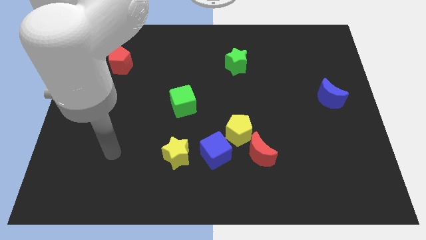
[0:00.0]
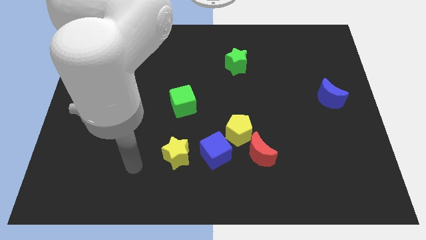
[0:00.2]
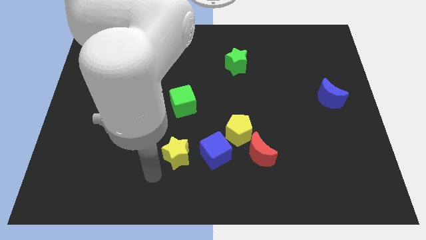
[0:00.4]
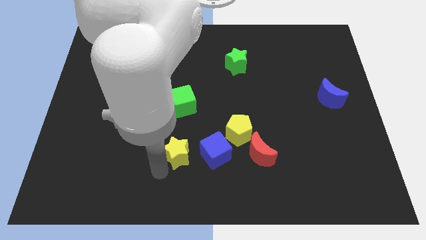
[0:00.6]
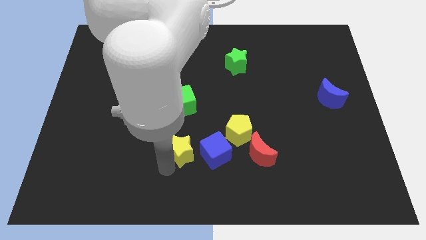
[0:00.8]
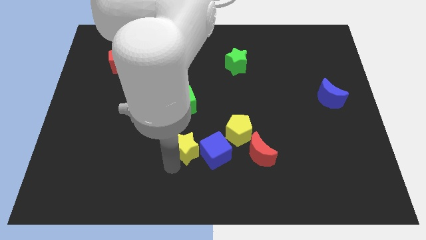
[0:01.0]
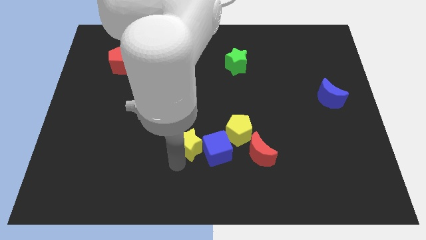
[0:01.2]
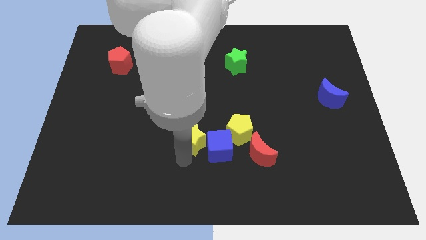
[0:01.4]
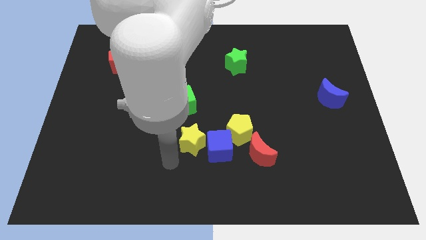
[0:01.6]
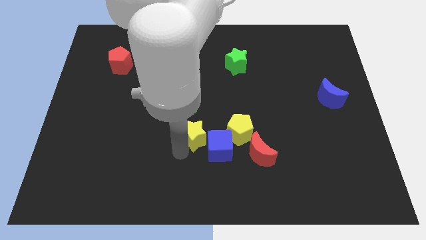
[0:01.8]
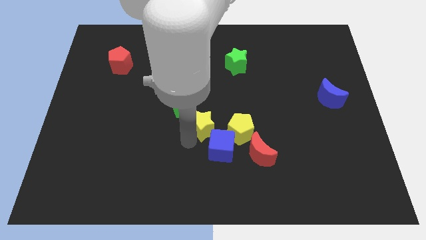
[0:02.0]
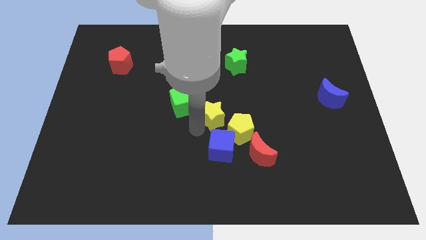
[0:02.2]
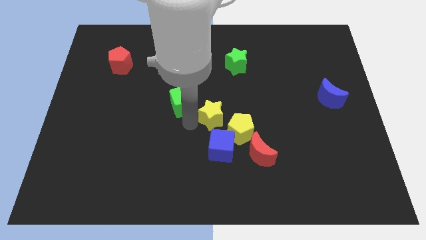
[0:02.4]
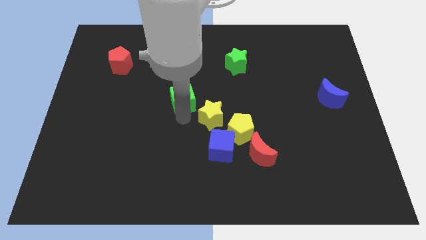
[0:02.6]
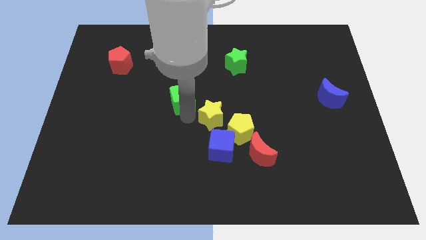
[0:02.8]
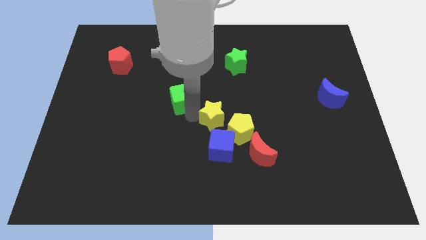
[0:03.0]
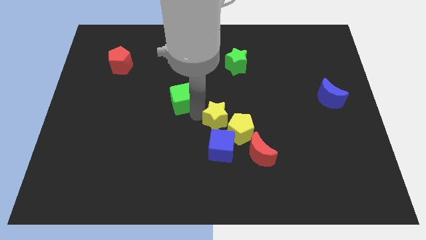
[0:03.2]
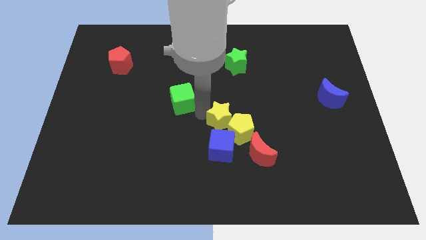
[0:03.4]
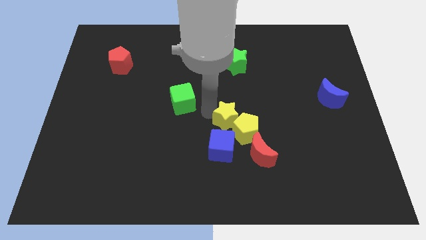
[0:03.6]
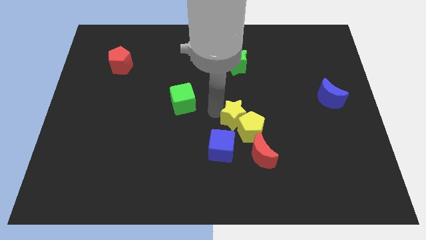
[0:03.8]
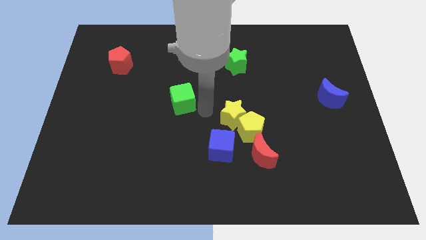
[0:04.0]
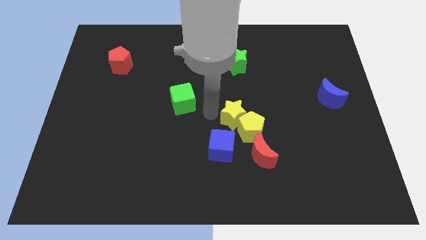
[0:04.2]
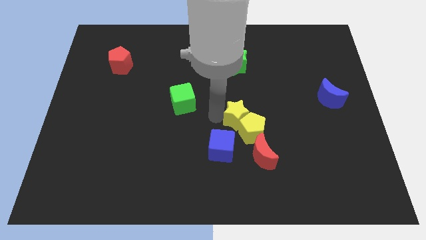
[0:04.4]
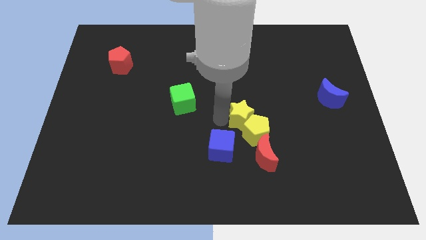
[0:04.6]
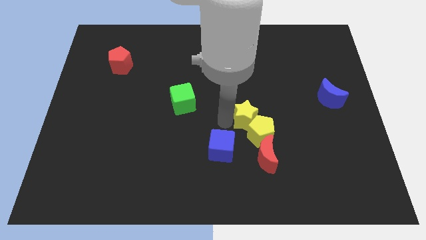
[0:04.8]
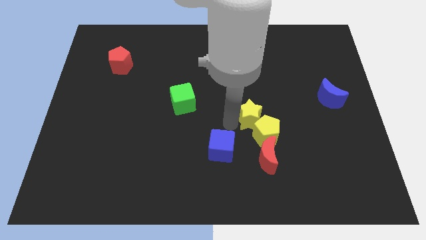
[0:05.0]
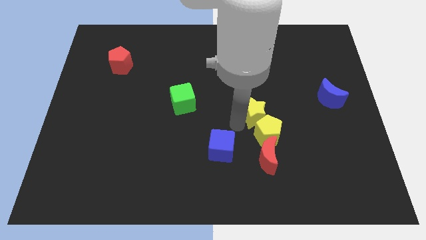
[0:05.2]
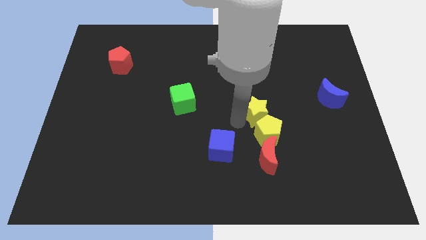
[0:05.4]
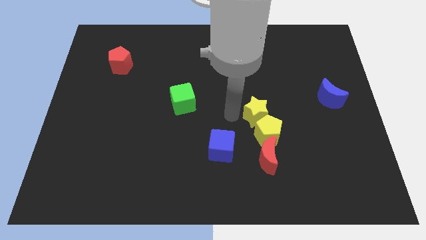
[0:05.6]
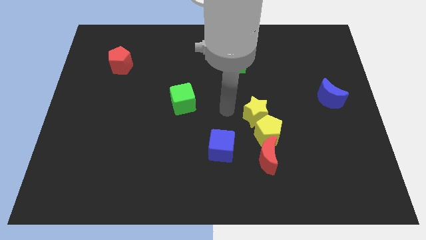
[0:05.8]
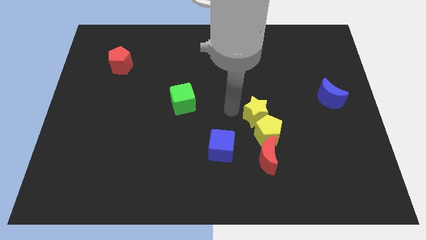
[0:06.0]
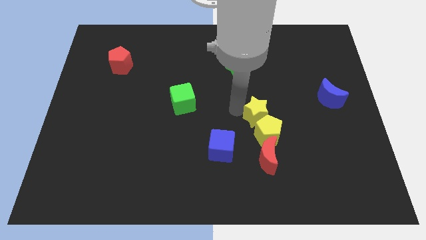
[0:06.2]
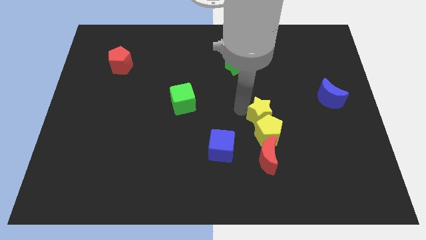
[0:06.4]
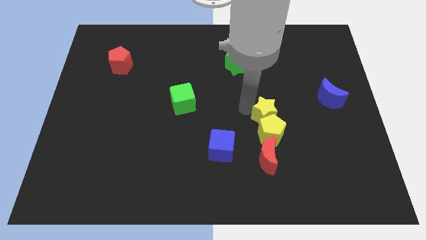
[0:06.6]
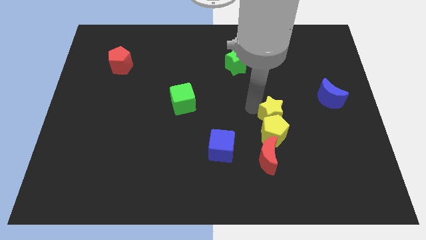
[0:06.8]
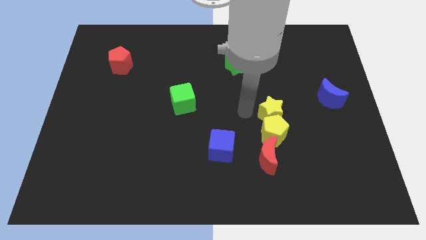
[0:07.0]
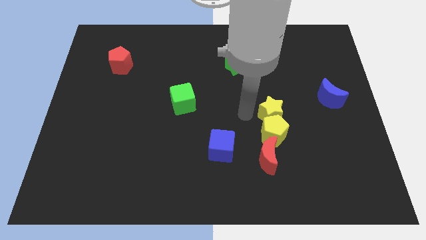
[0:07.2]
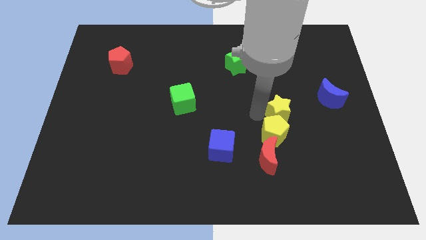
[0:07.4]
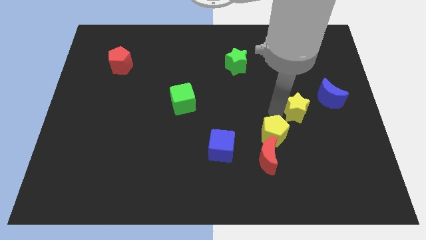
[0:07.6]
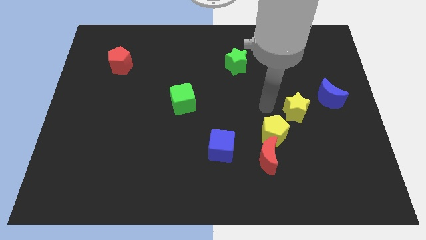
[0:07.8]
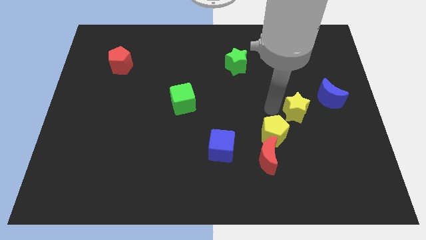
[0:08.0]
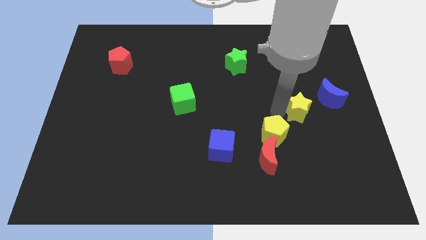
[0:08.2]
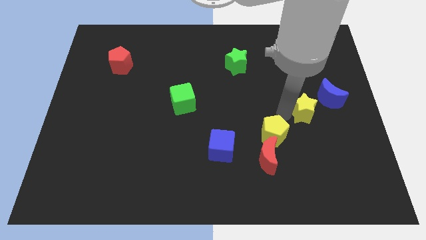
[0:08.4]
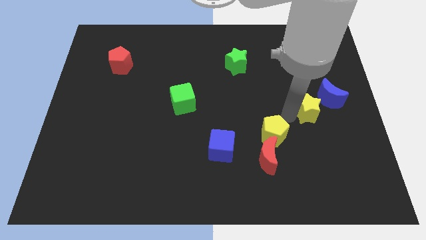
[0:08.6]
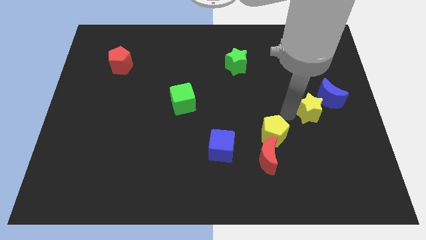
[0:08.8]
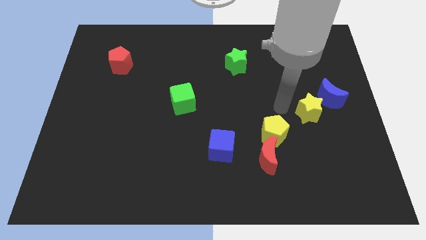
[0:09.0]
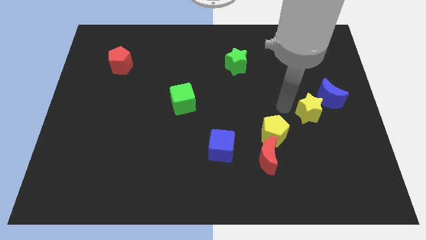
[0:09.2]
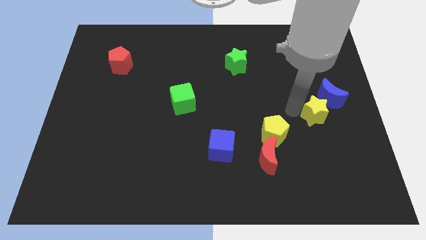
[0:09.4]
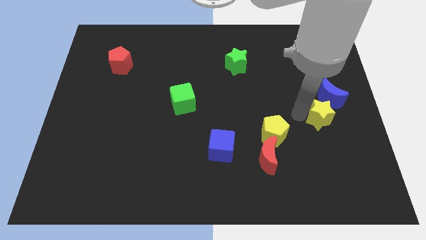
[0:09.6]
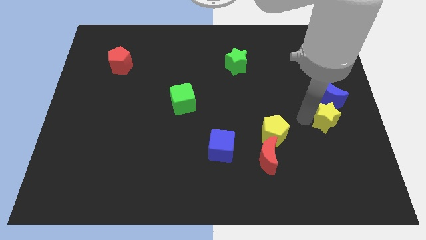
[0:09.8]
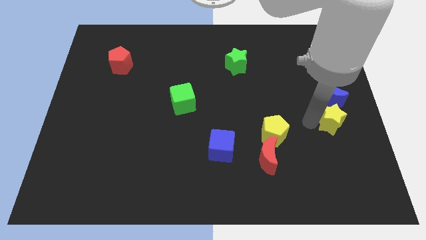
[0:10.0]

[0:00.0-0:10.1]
slide the yellow star to the right side

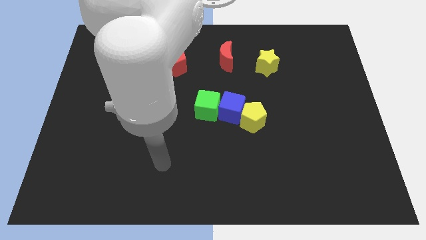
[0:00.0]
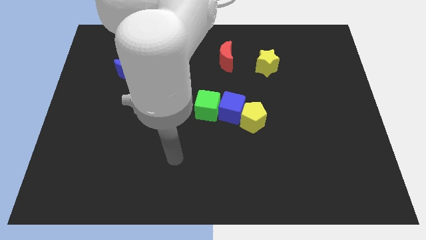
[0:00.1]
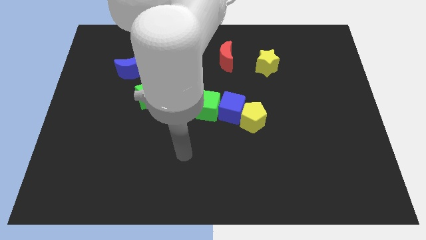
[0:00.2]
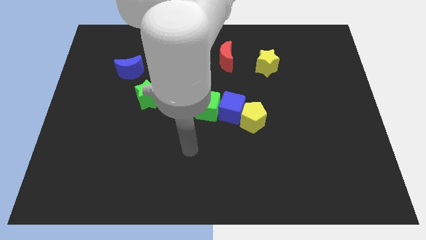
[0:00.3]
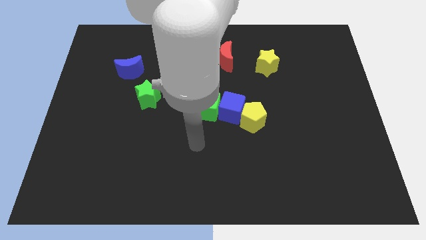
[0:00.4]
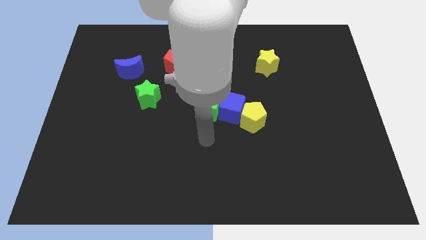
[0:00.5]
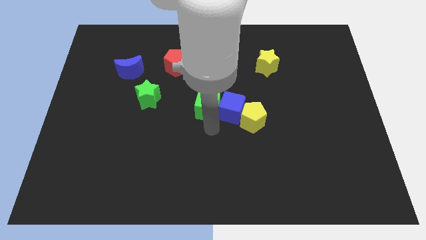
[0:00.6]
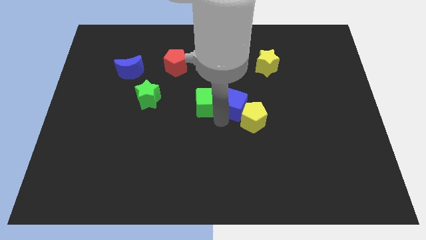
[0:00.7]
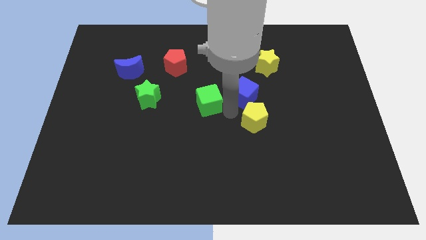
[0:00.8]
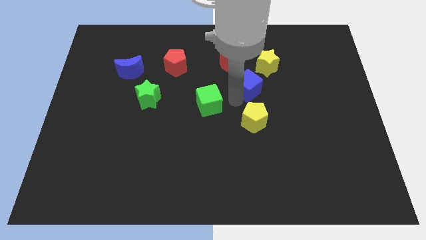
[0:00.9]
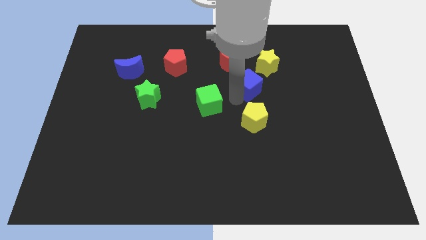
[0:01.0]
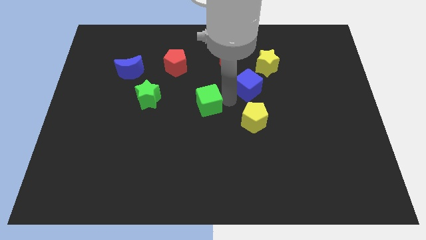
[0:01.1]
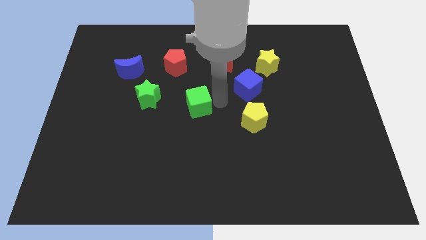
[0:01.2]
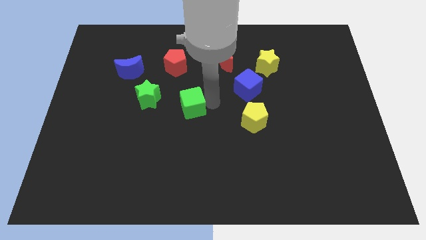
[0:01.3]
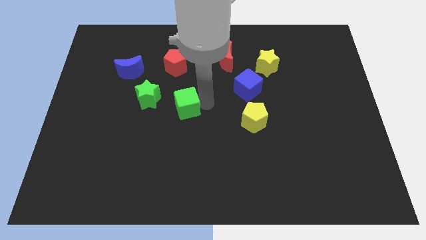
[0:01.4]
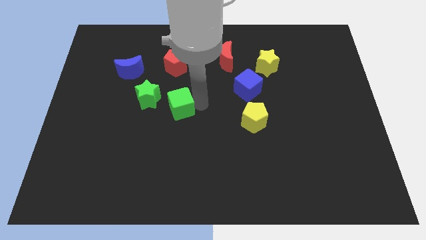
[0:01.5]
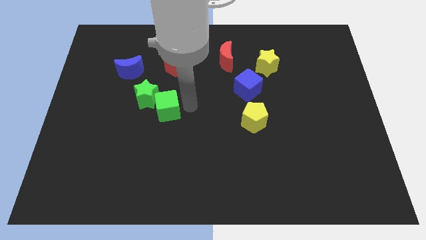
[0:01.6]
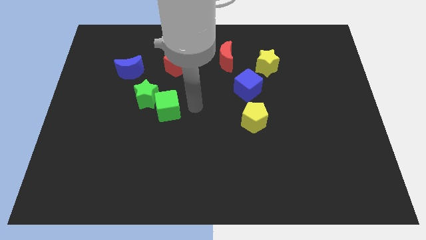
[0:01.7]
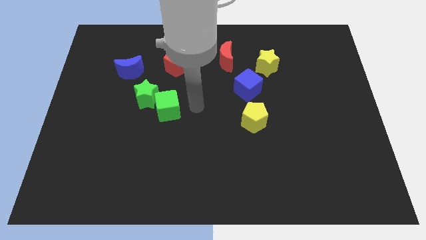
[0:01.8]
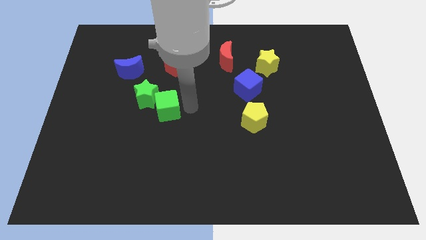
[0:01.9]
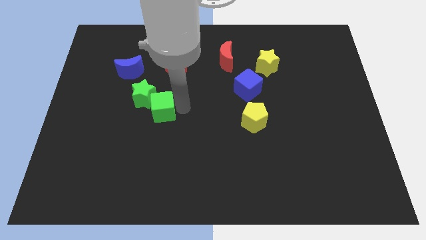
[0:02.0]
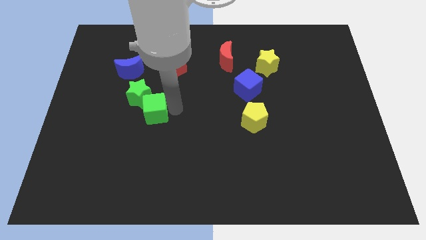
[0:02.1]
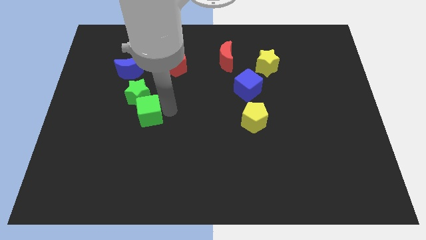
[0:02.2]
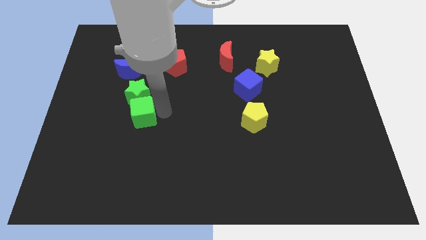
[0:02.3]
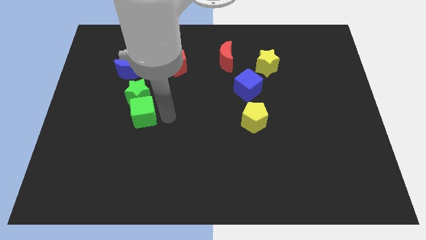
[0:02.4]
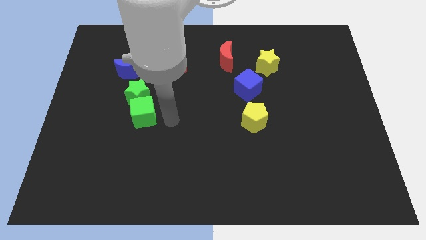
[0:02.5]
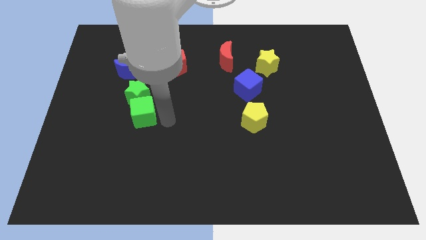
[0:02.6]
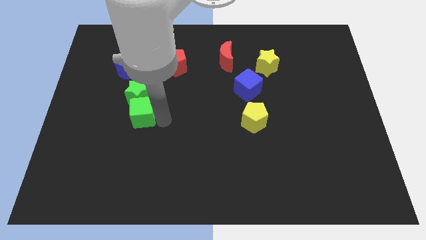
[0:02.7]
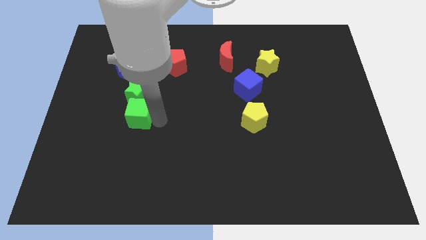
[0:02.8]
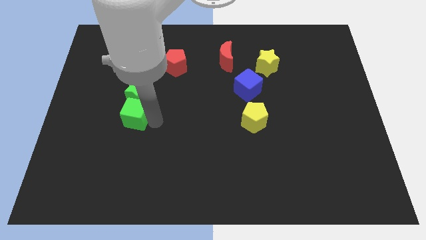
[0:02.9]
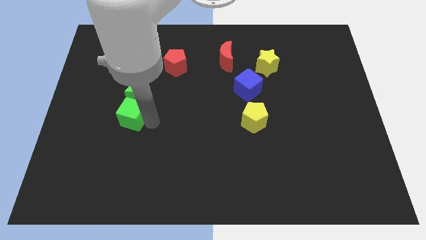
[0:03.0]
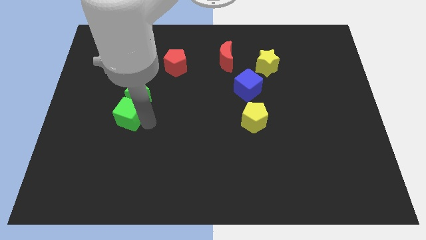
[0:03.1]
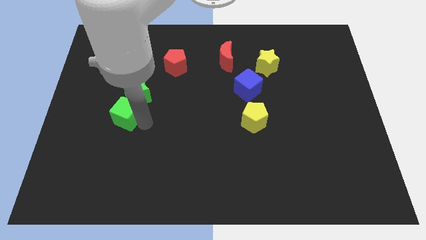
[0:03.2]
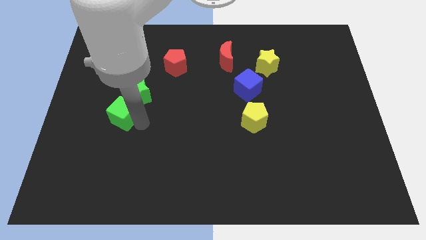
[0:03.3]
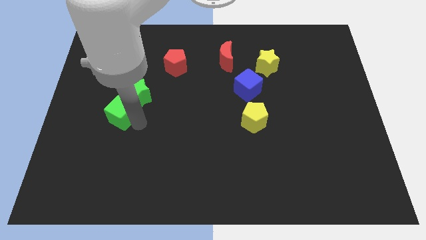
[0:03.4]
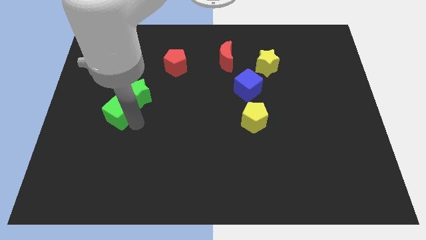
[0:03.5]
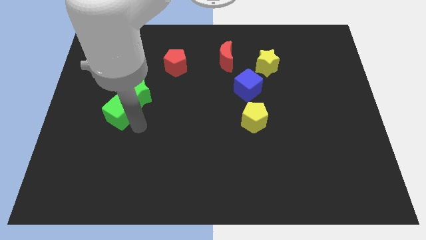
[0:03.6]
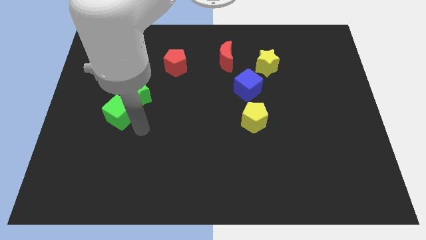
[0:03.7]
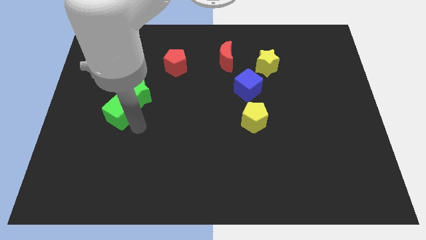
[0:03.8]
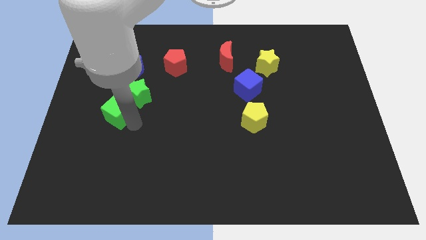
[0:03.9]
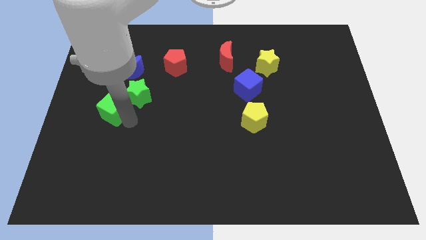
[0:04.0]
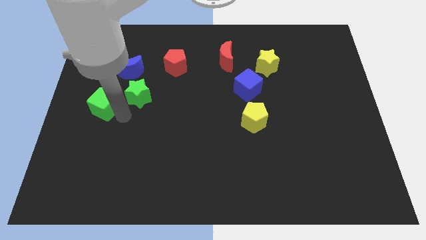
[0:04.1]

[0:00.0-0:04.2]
push the green cube to the center left
